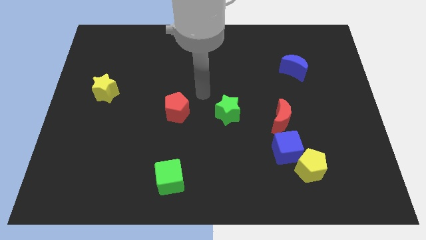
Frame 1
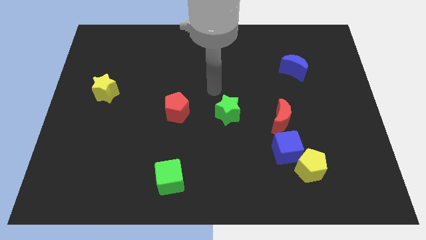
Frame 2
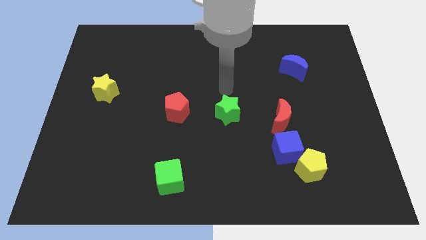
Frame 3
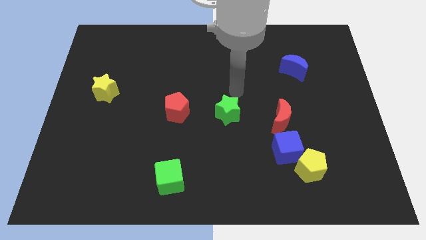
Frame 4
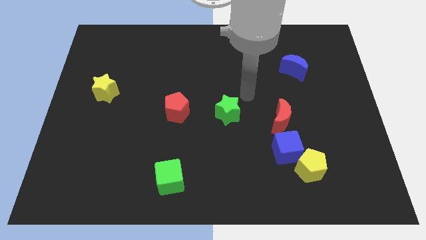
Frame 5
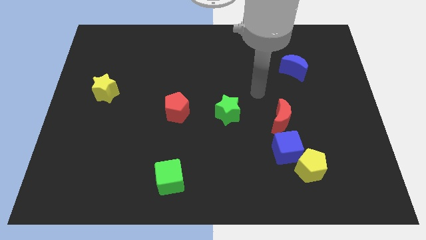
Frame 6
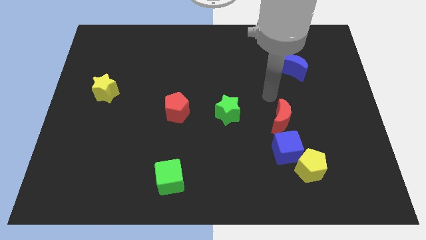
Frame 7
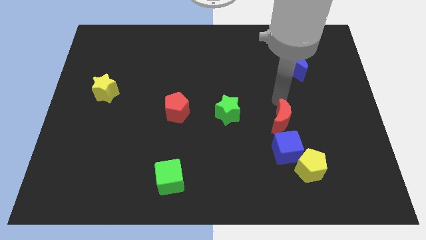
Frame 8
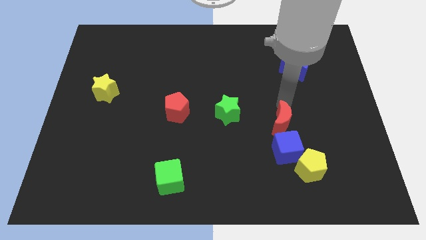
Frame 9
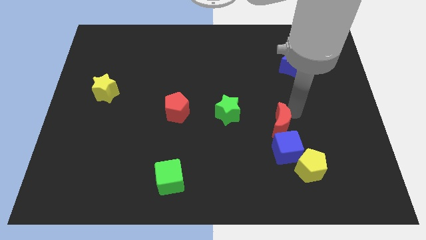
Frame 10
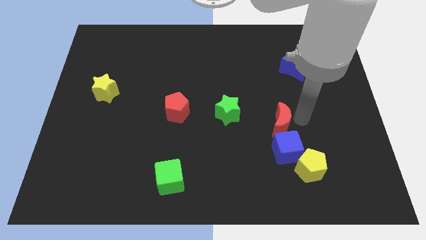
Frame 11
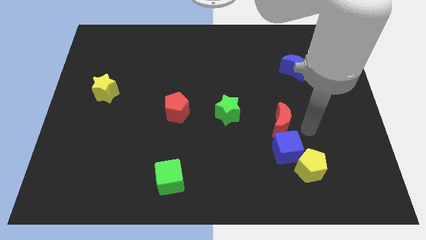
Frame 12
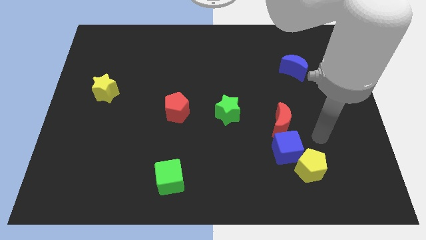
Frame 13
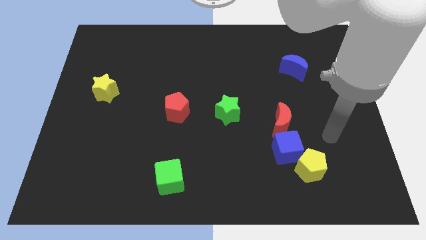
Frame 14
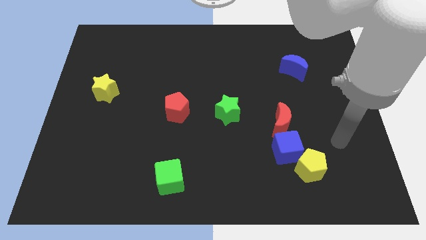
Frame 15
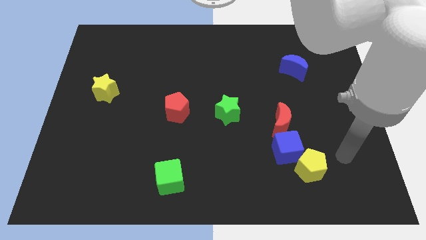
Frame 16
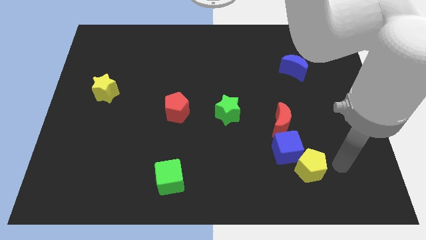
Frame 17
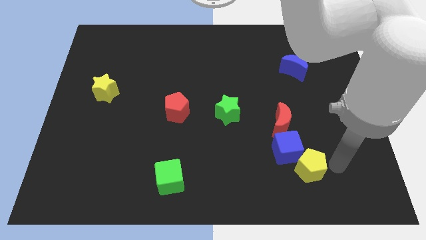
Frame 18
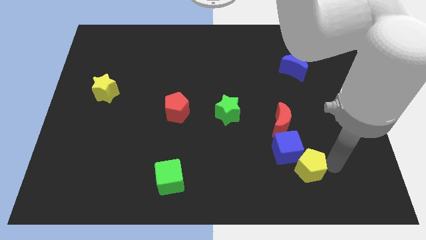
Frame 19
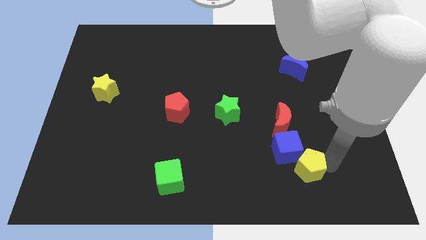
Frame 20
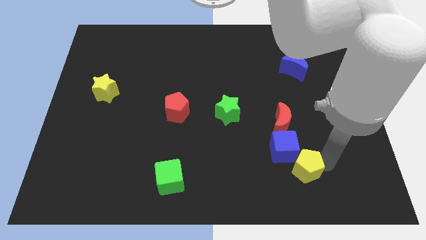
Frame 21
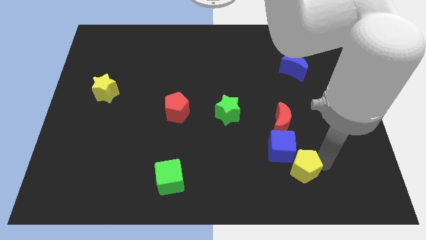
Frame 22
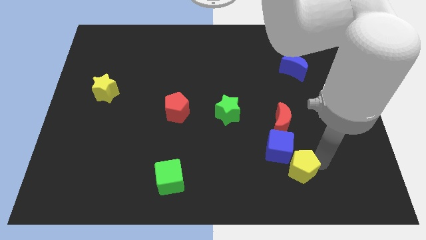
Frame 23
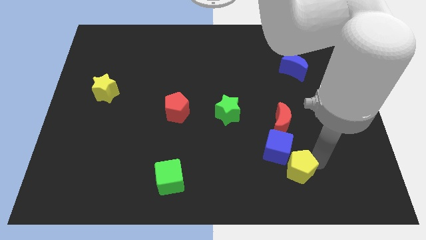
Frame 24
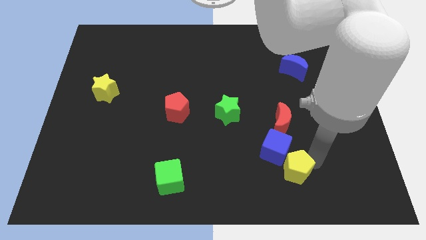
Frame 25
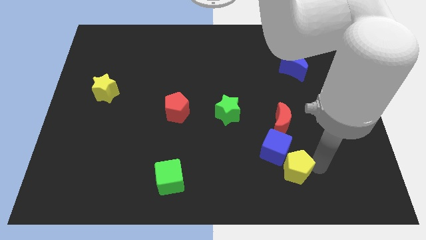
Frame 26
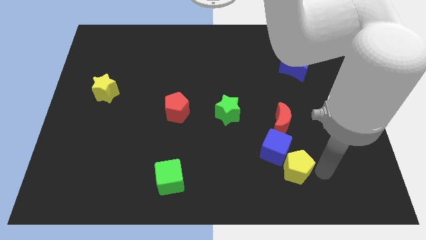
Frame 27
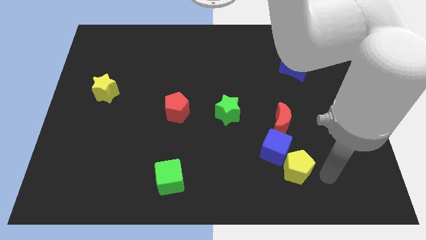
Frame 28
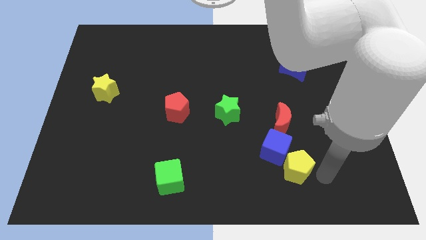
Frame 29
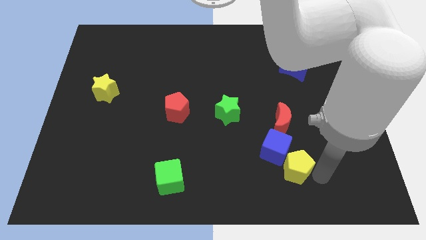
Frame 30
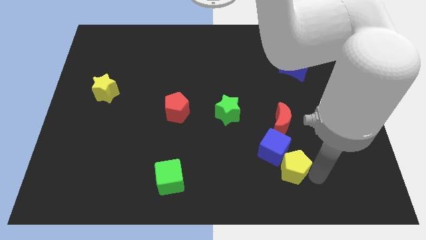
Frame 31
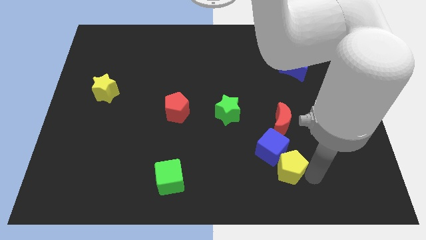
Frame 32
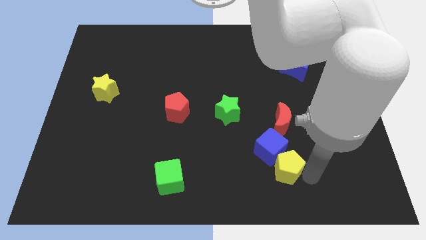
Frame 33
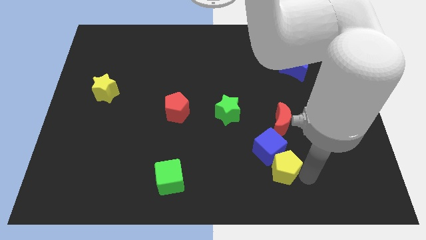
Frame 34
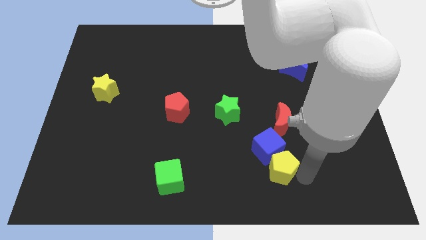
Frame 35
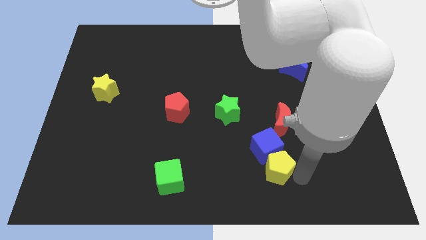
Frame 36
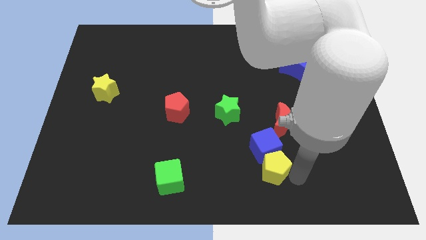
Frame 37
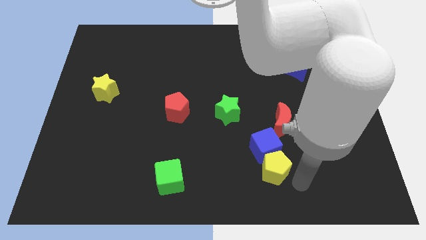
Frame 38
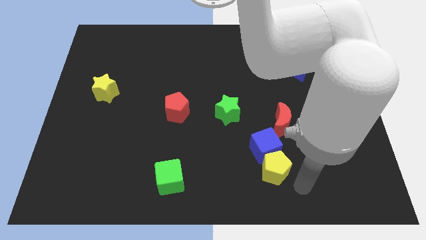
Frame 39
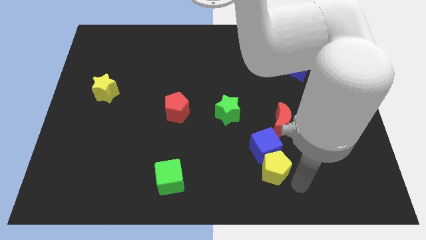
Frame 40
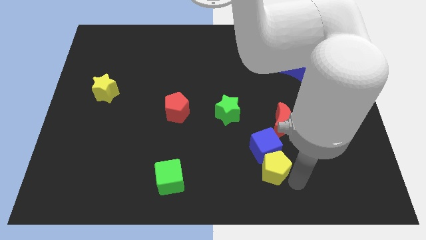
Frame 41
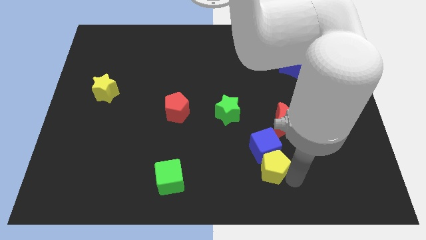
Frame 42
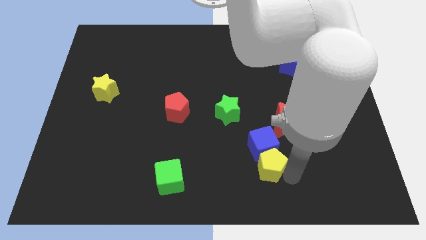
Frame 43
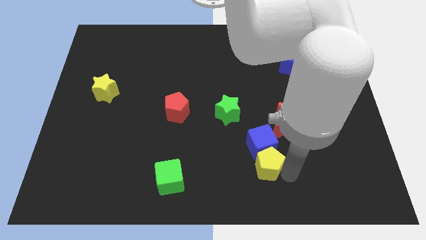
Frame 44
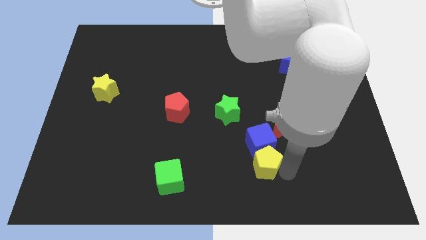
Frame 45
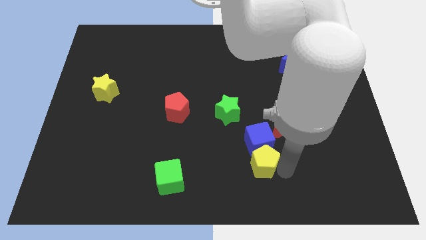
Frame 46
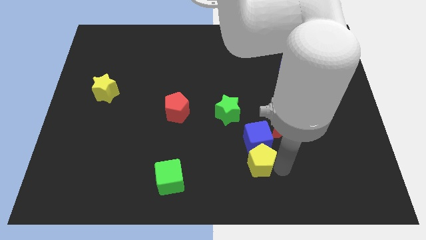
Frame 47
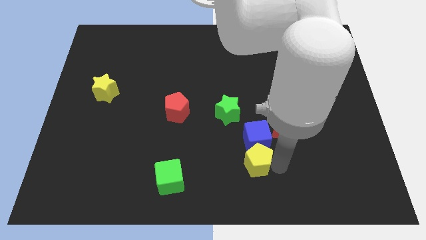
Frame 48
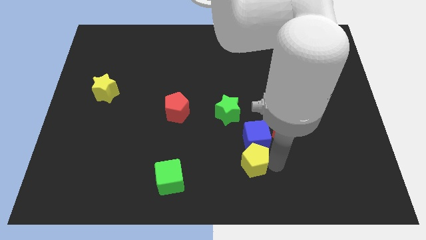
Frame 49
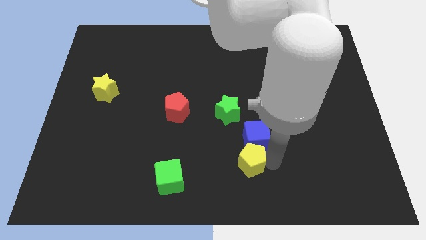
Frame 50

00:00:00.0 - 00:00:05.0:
slide the yellow pentagon to the bottom of the green star

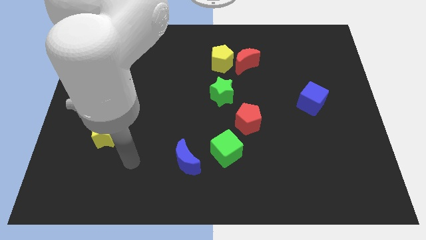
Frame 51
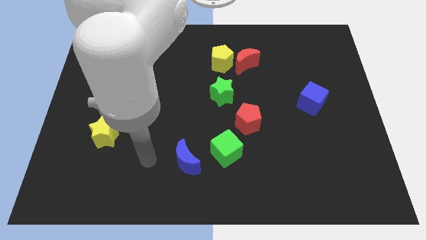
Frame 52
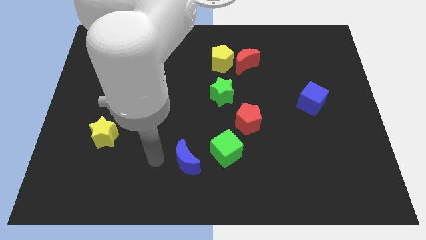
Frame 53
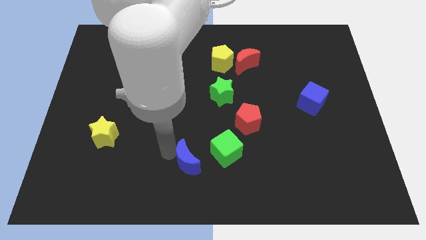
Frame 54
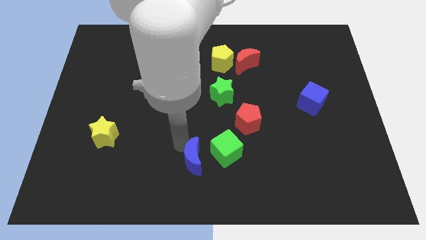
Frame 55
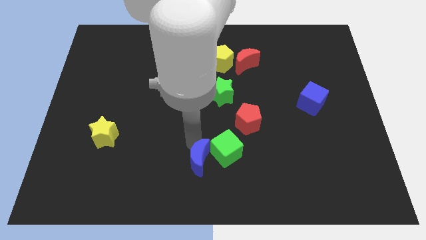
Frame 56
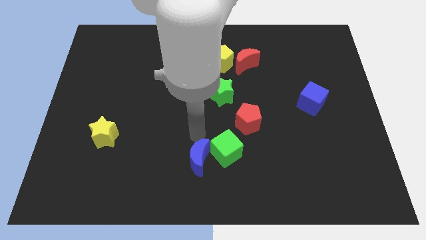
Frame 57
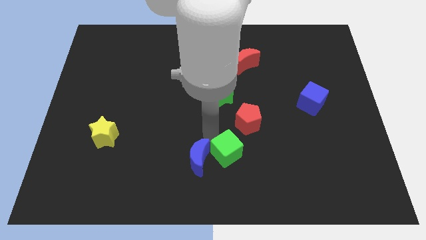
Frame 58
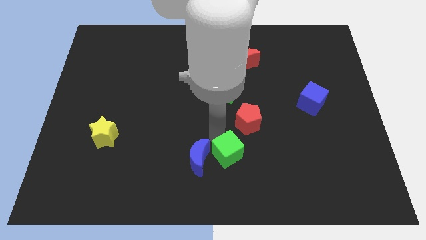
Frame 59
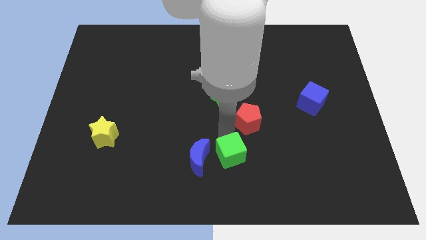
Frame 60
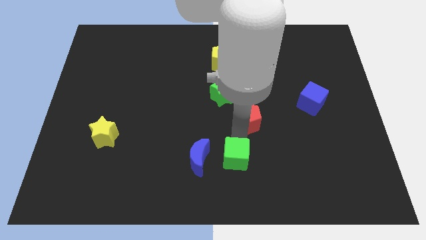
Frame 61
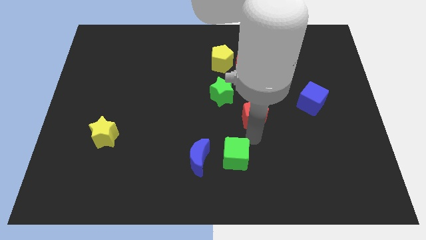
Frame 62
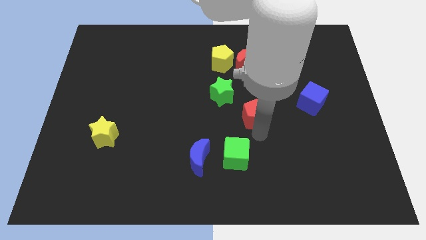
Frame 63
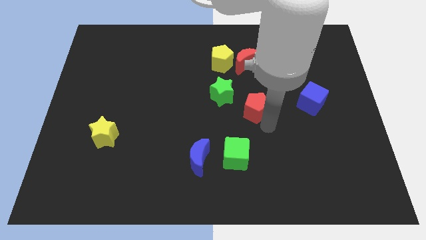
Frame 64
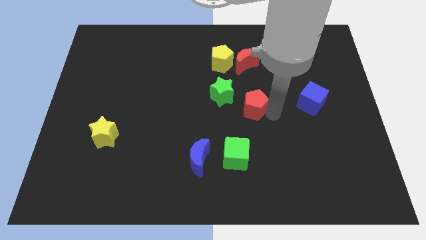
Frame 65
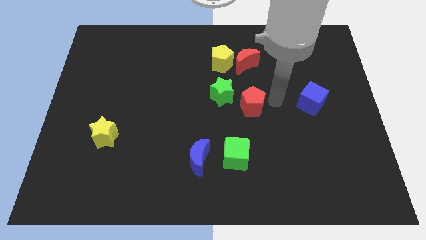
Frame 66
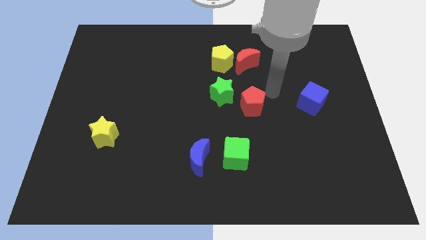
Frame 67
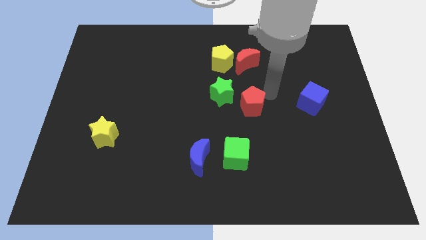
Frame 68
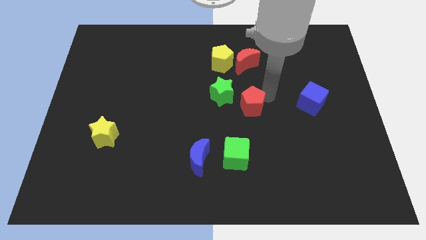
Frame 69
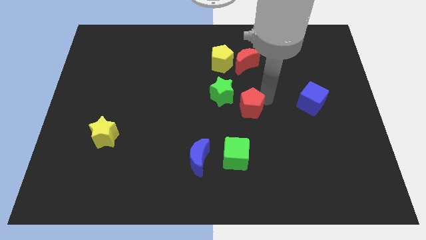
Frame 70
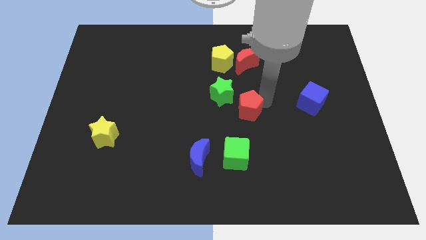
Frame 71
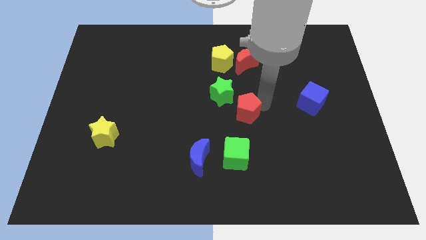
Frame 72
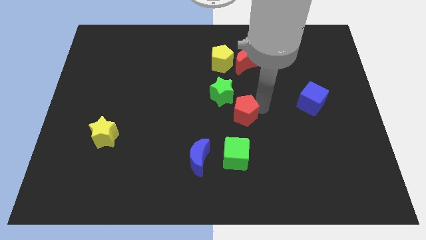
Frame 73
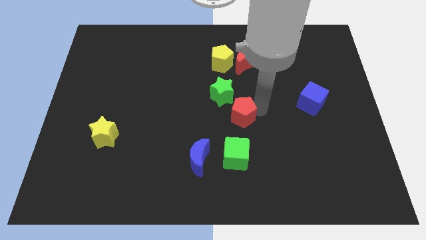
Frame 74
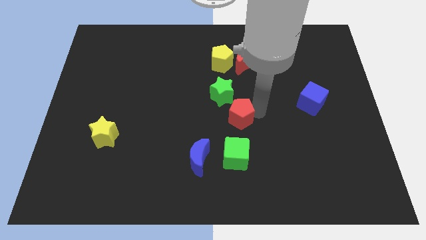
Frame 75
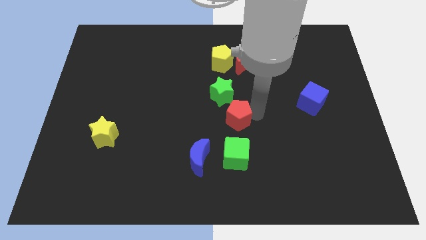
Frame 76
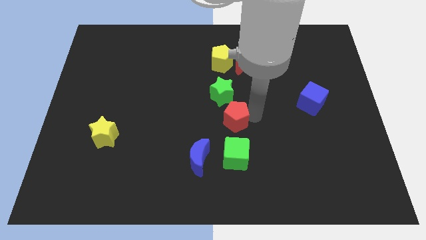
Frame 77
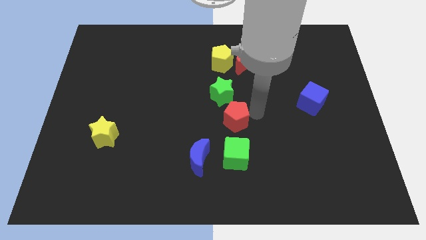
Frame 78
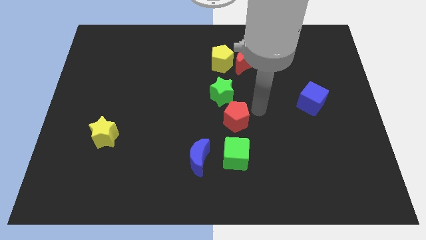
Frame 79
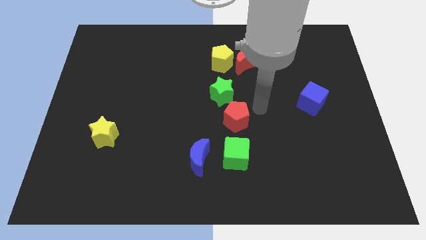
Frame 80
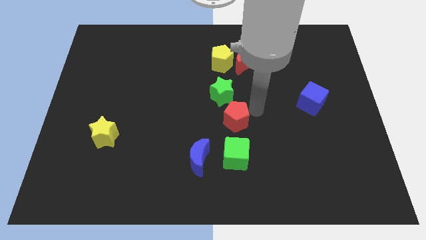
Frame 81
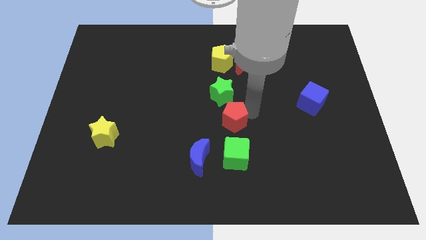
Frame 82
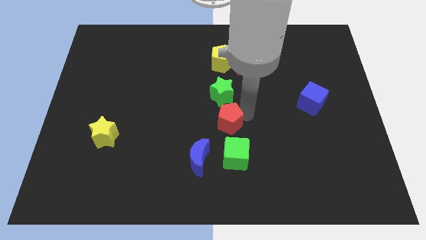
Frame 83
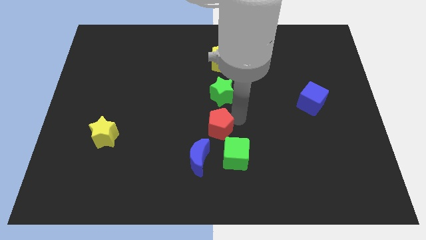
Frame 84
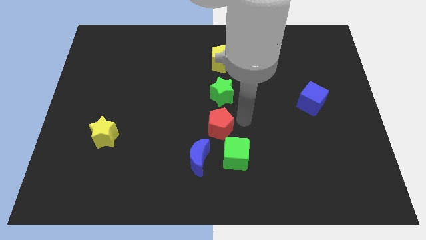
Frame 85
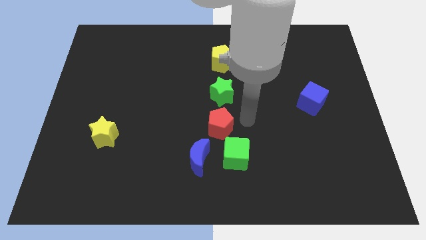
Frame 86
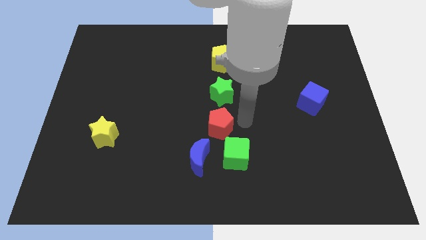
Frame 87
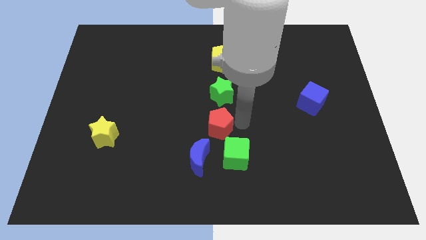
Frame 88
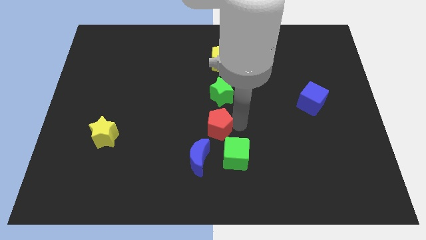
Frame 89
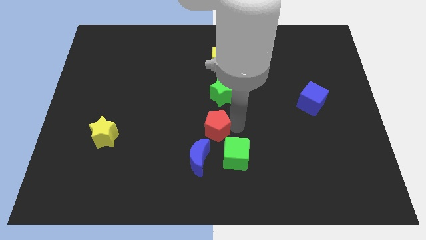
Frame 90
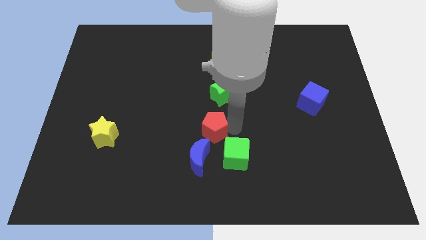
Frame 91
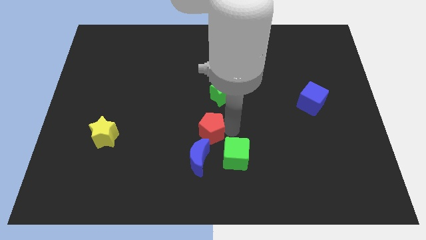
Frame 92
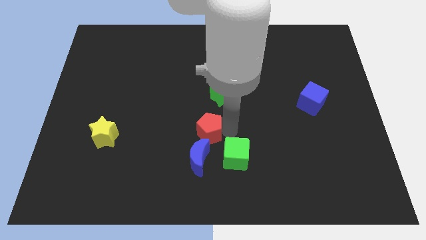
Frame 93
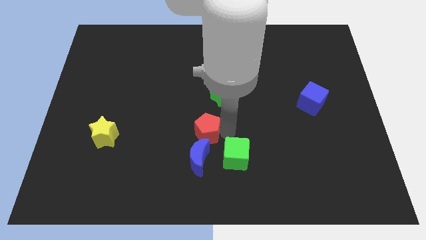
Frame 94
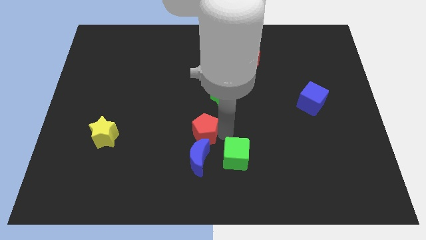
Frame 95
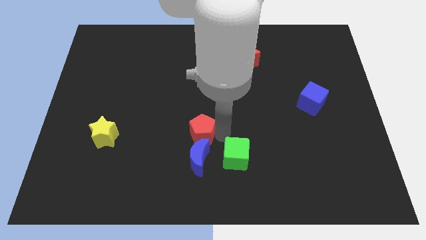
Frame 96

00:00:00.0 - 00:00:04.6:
move the red pentagon diagonally up and to the left of the blue moon
